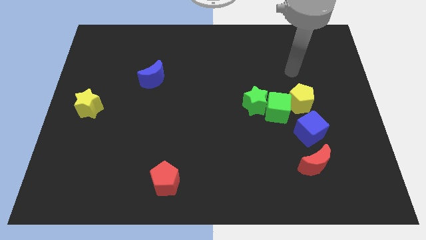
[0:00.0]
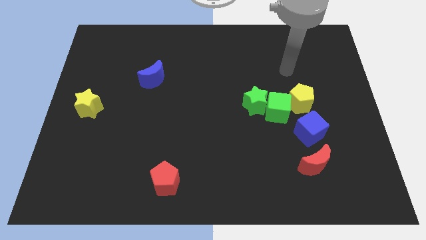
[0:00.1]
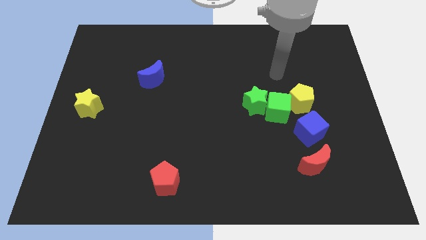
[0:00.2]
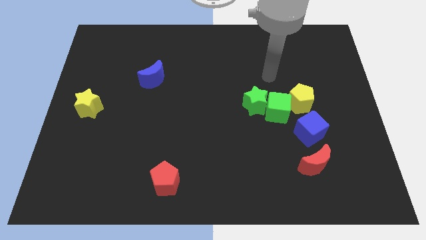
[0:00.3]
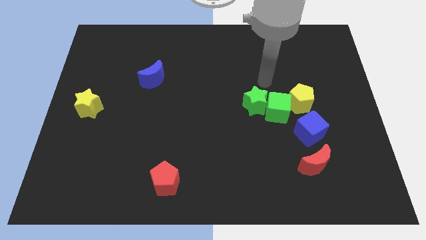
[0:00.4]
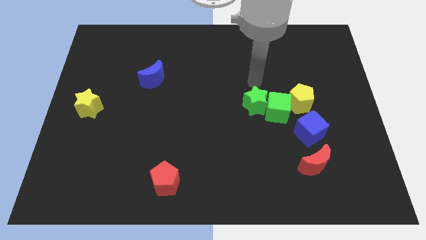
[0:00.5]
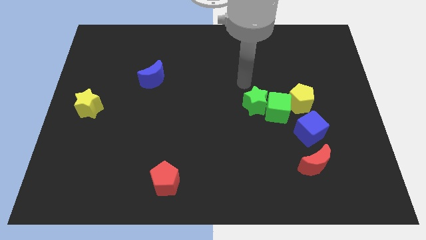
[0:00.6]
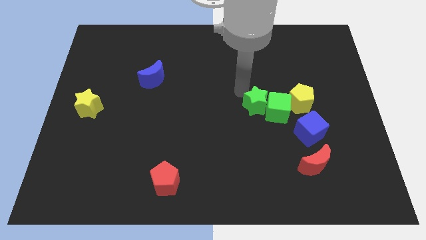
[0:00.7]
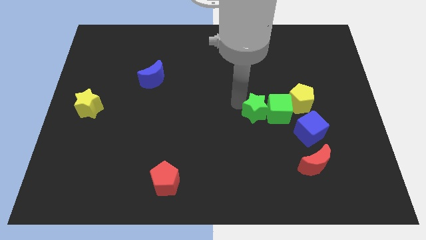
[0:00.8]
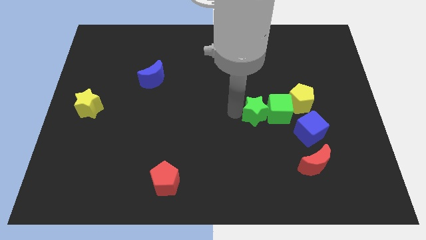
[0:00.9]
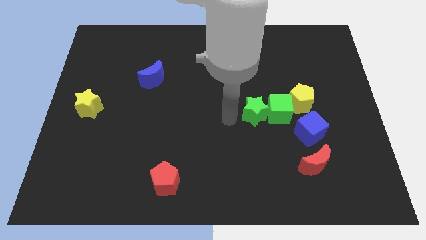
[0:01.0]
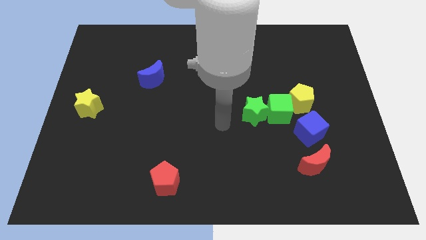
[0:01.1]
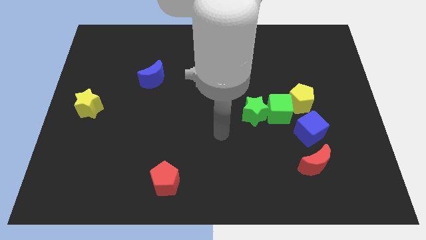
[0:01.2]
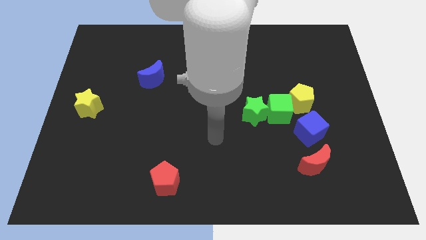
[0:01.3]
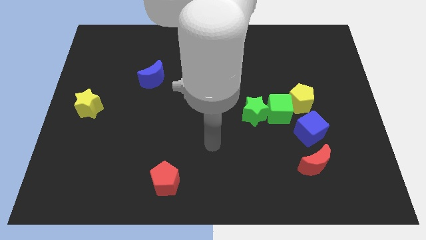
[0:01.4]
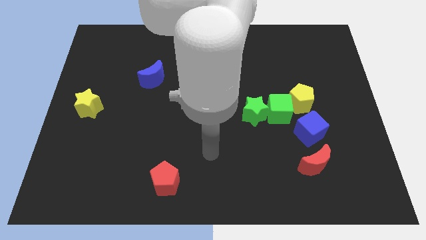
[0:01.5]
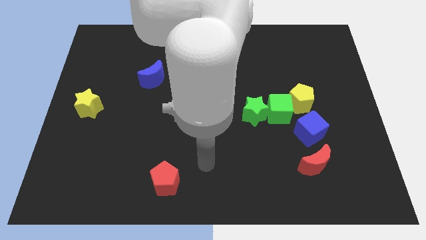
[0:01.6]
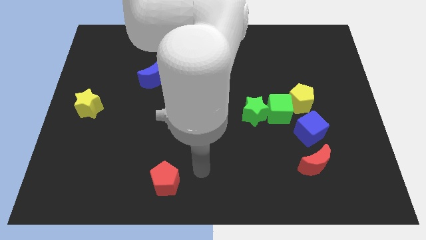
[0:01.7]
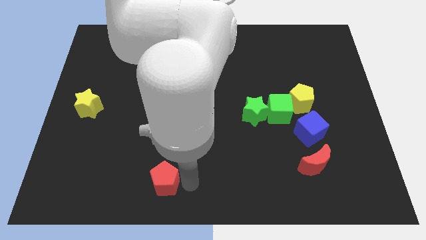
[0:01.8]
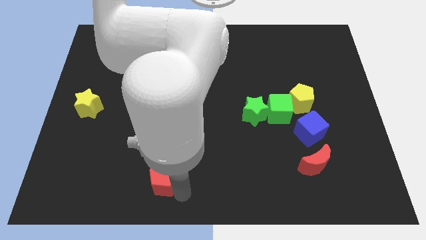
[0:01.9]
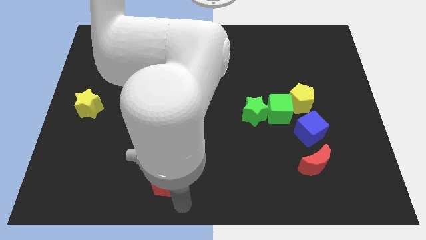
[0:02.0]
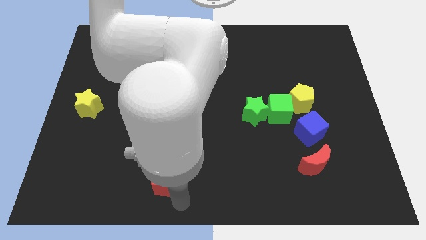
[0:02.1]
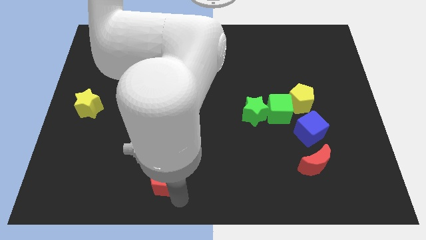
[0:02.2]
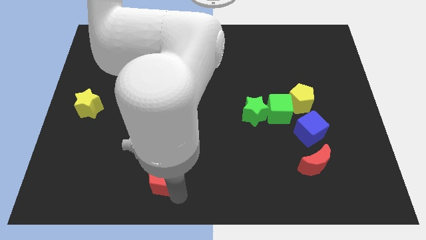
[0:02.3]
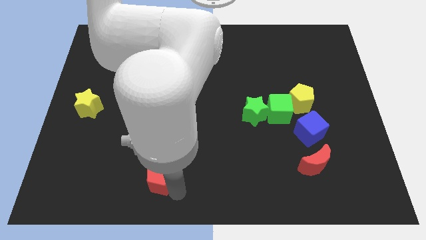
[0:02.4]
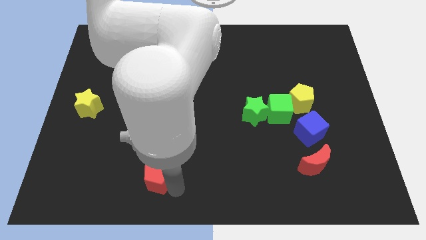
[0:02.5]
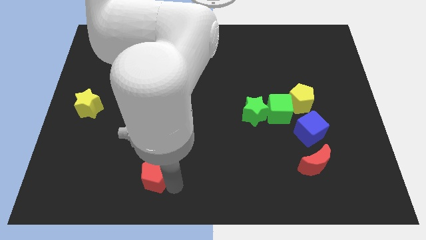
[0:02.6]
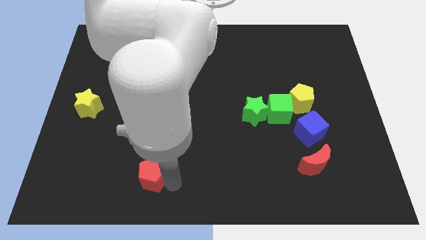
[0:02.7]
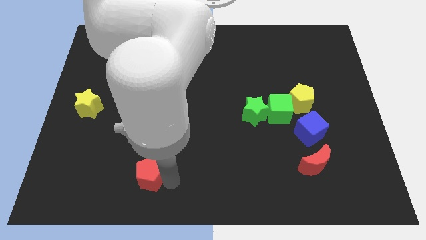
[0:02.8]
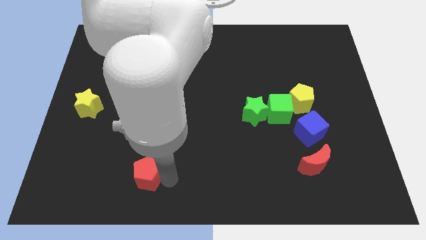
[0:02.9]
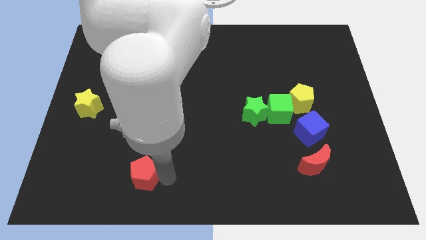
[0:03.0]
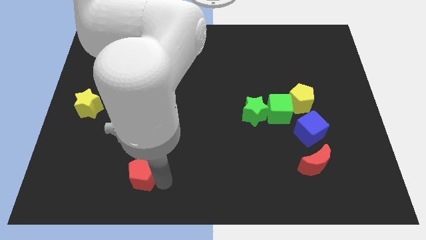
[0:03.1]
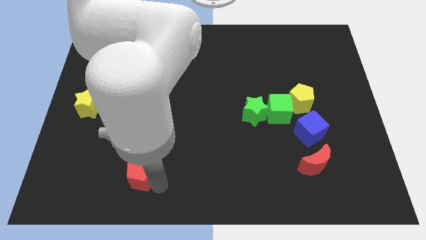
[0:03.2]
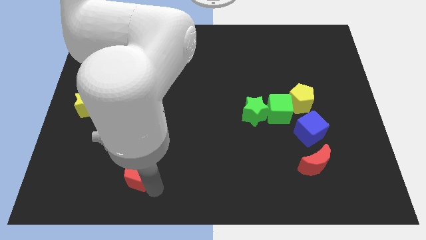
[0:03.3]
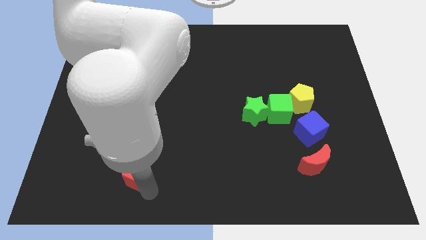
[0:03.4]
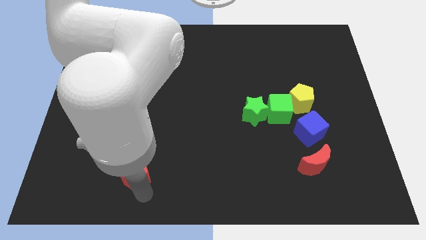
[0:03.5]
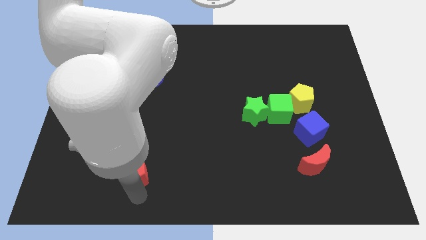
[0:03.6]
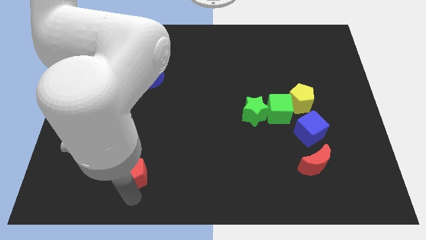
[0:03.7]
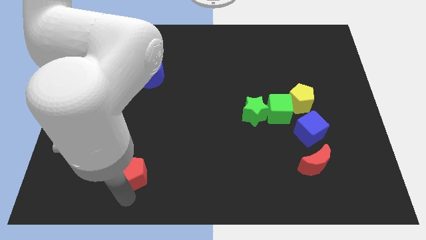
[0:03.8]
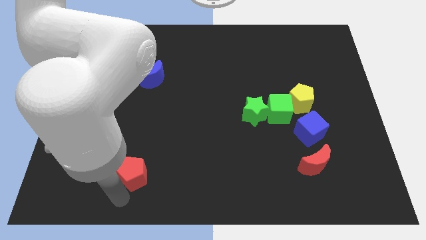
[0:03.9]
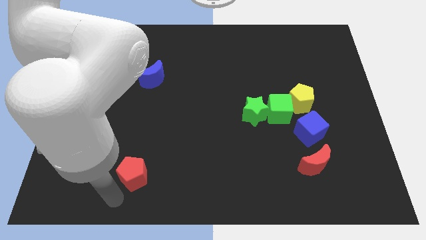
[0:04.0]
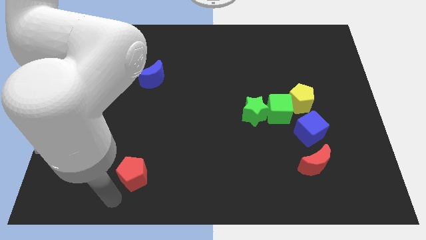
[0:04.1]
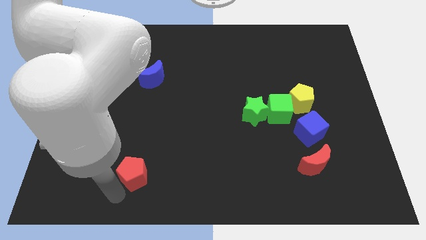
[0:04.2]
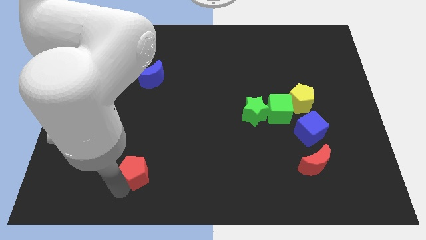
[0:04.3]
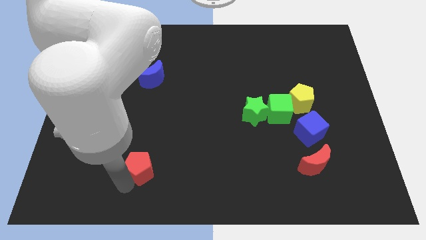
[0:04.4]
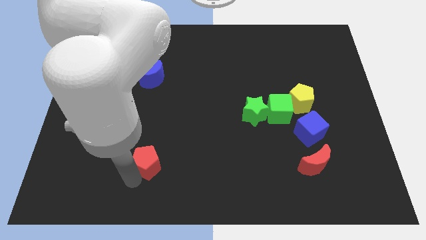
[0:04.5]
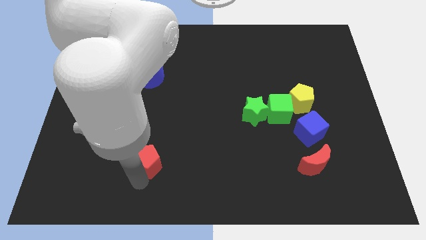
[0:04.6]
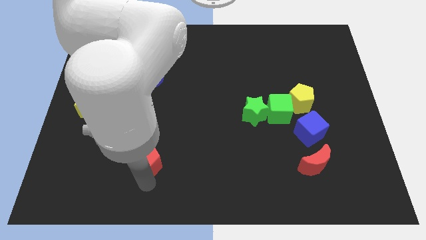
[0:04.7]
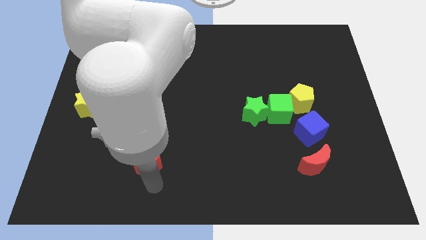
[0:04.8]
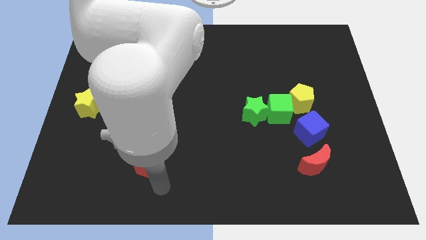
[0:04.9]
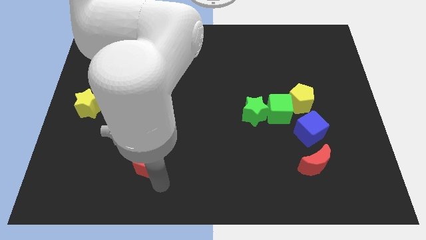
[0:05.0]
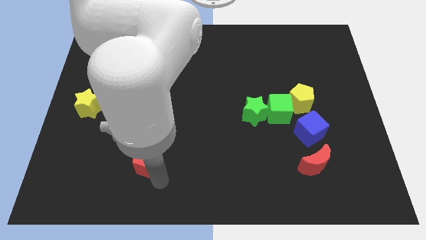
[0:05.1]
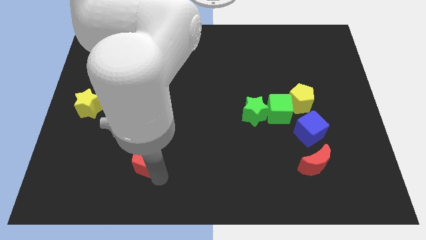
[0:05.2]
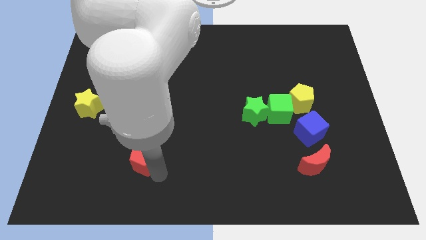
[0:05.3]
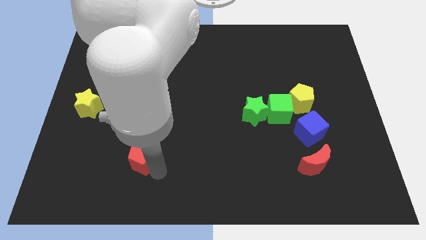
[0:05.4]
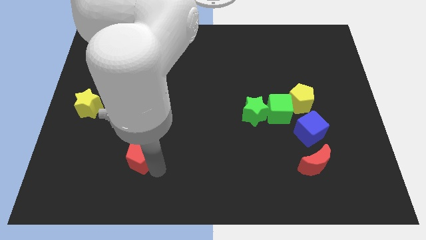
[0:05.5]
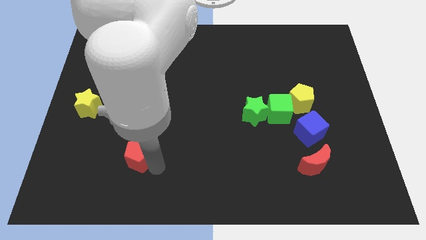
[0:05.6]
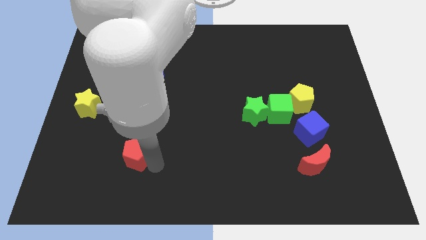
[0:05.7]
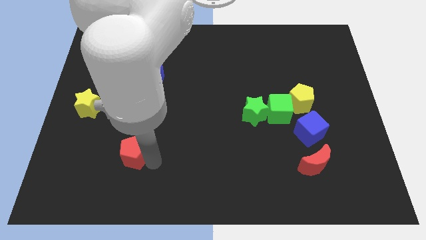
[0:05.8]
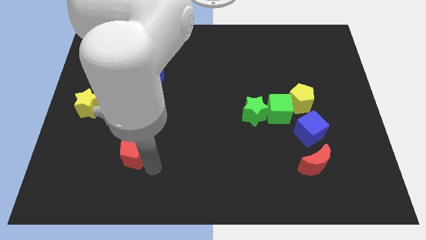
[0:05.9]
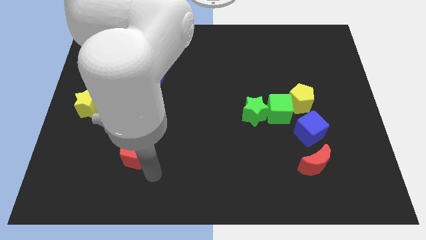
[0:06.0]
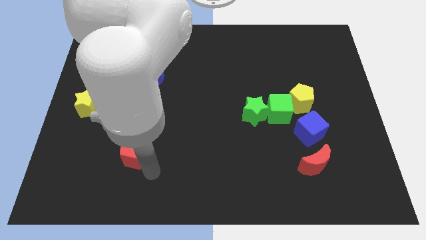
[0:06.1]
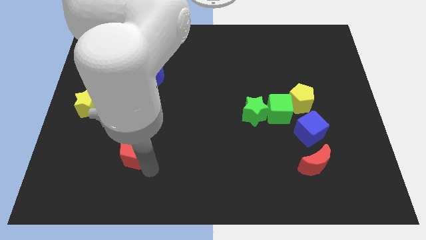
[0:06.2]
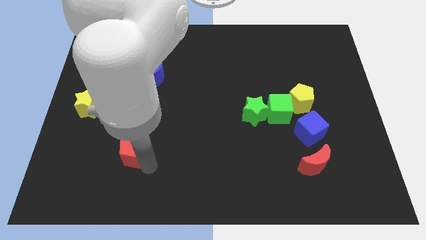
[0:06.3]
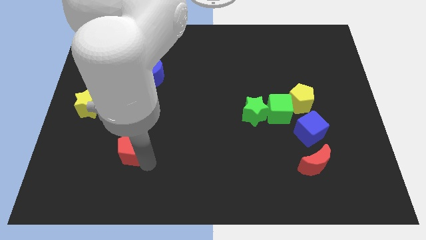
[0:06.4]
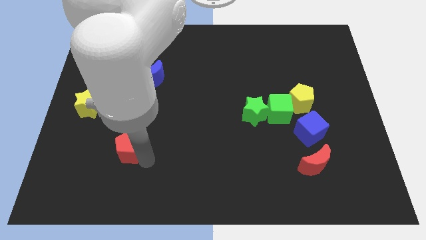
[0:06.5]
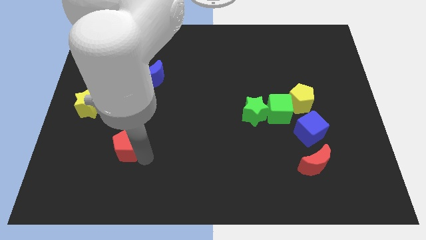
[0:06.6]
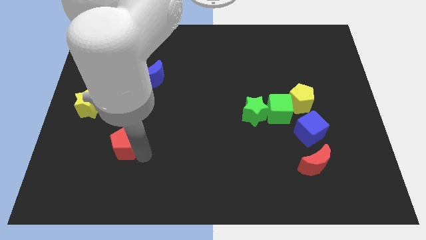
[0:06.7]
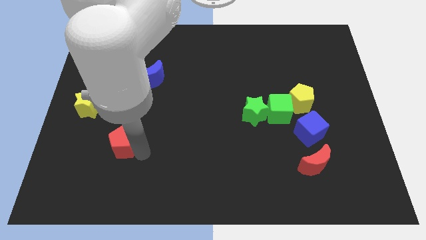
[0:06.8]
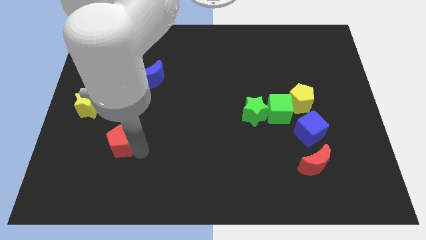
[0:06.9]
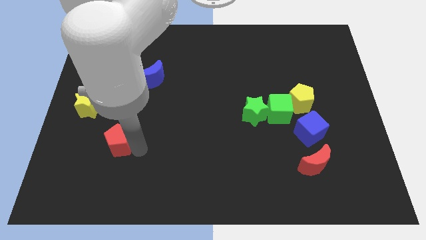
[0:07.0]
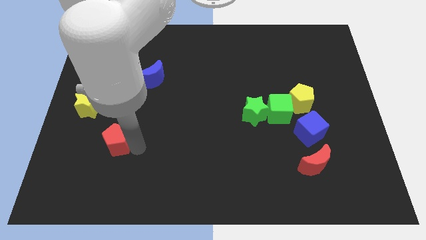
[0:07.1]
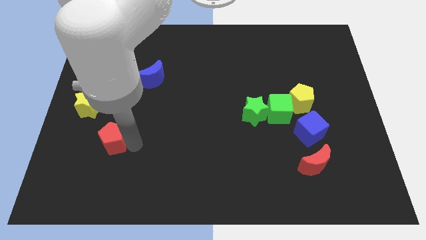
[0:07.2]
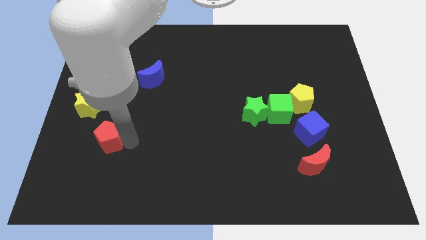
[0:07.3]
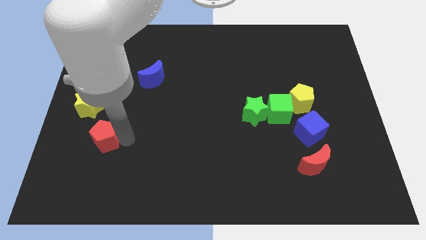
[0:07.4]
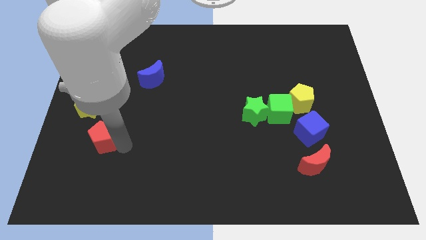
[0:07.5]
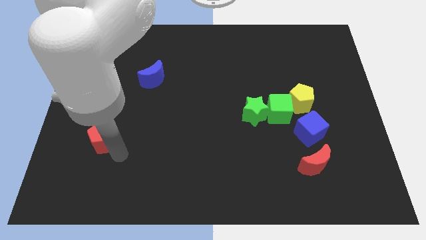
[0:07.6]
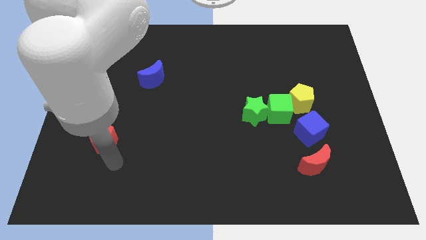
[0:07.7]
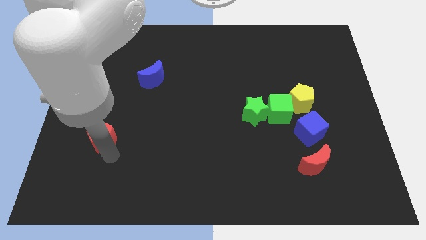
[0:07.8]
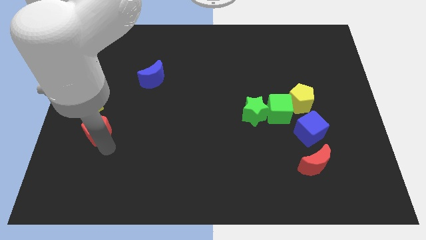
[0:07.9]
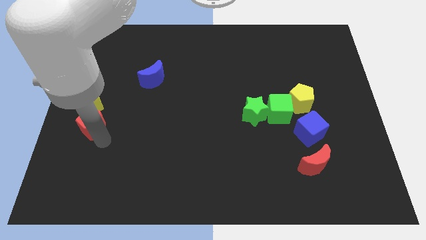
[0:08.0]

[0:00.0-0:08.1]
move the red pentagon next to the yellow star
